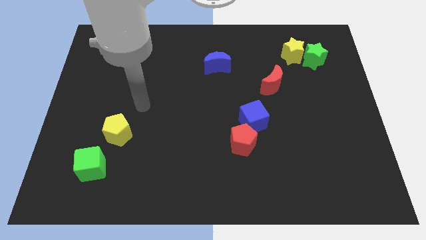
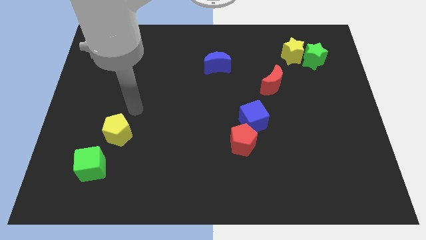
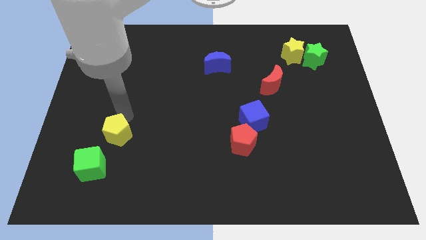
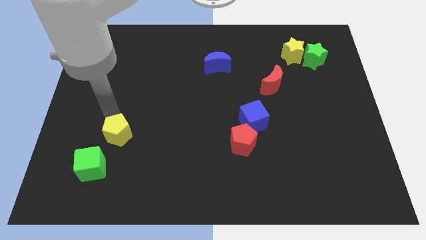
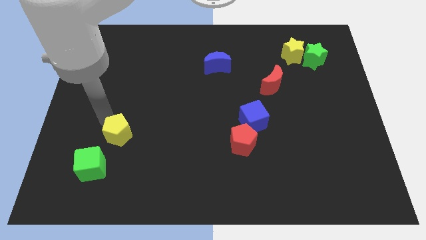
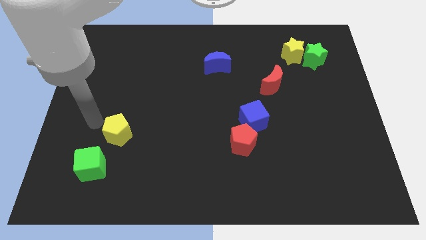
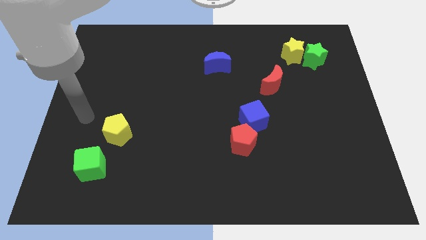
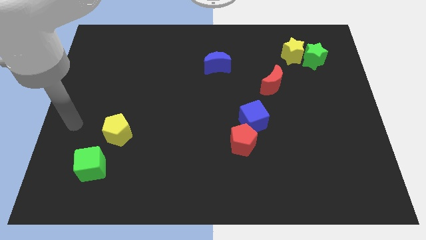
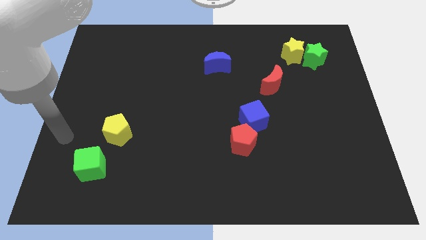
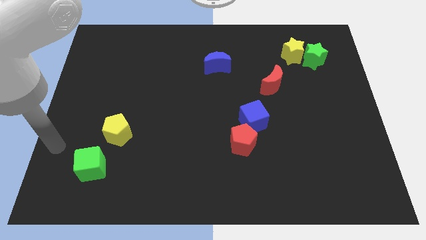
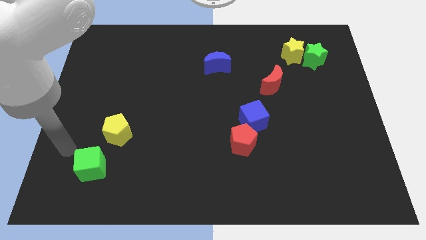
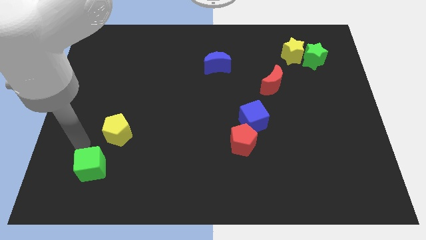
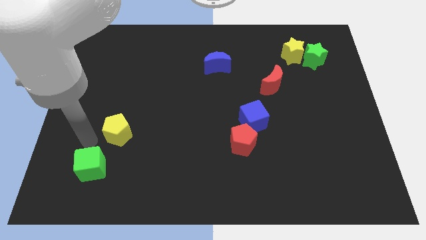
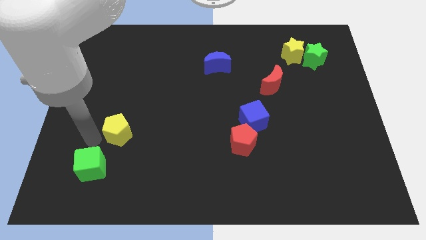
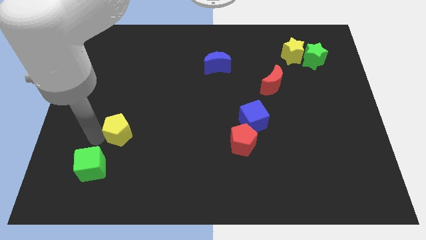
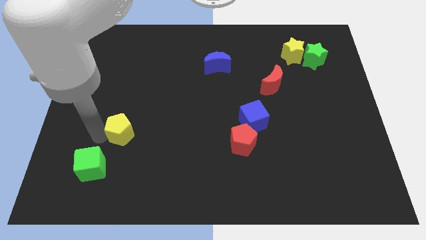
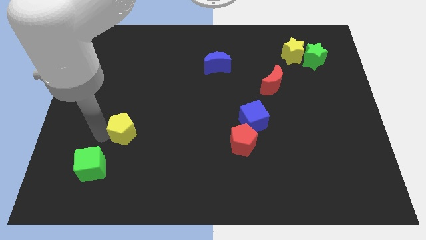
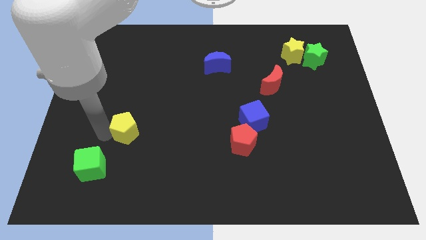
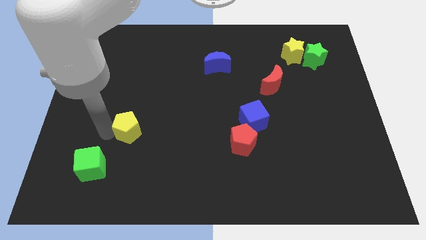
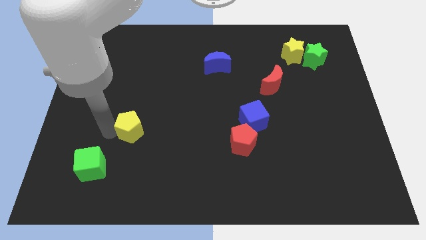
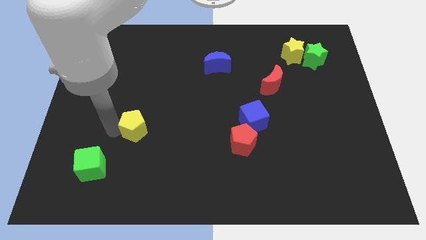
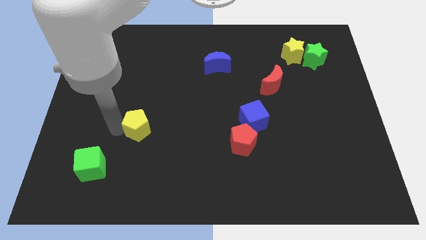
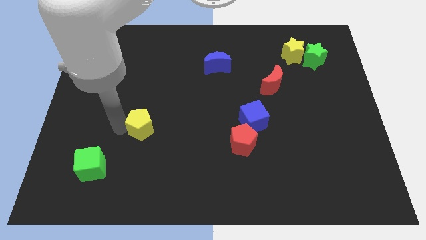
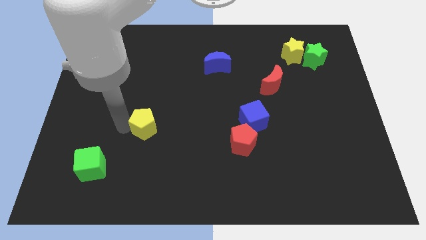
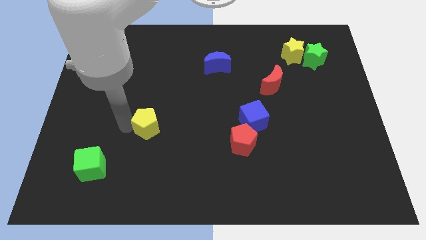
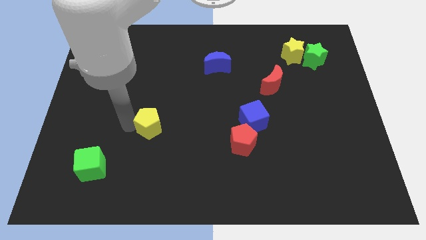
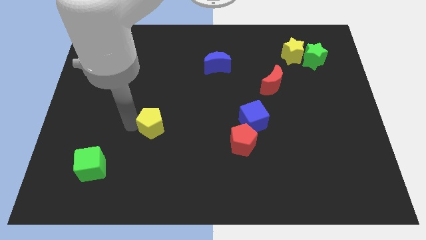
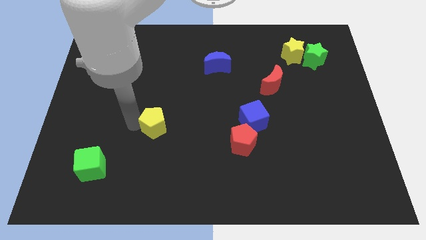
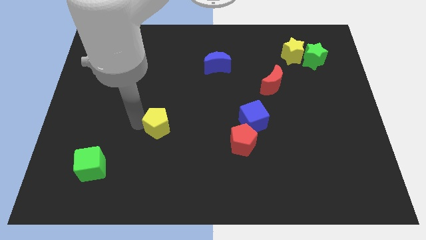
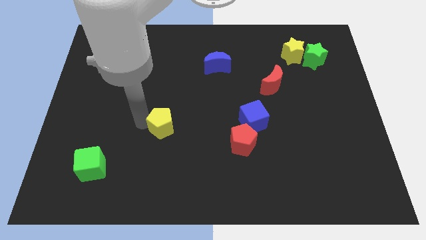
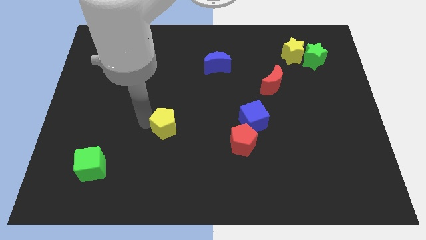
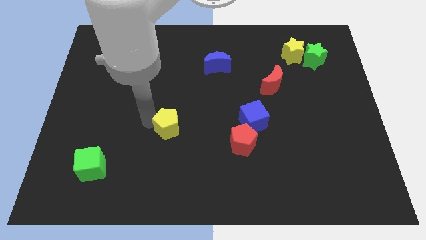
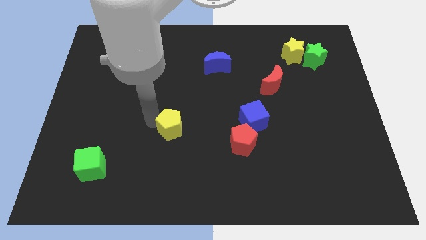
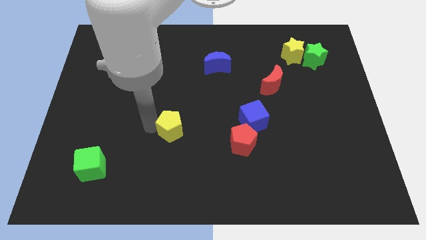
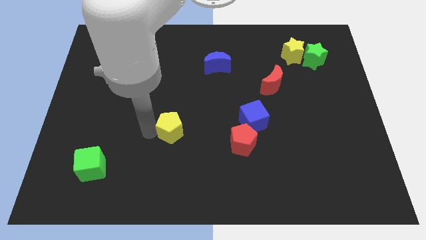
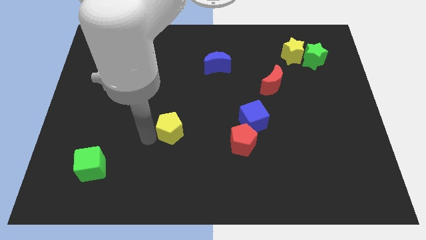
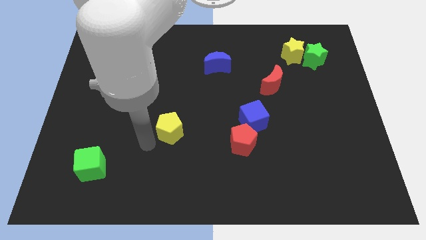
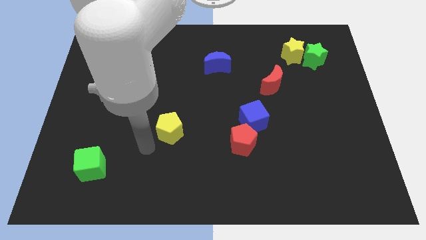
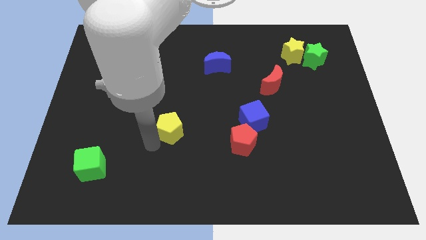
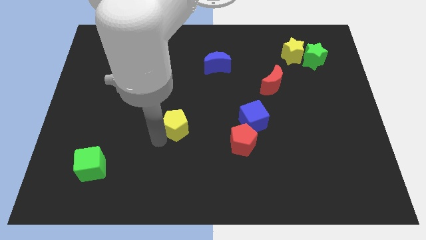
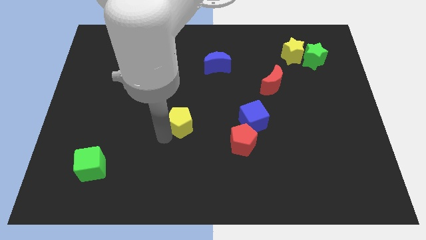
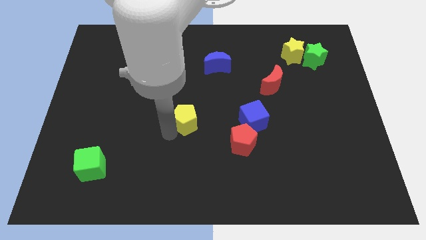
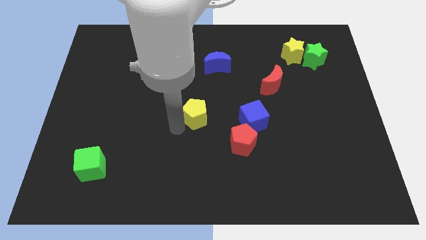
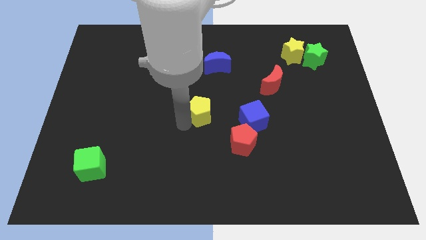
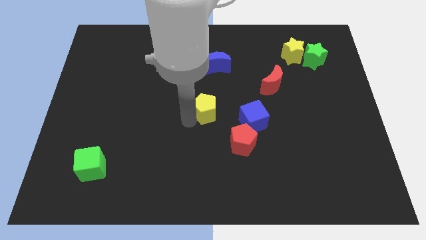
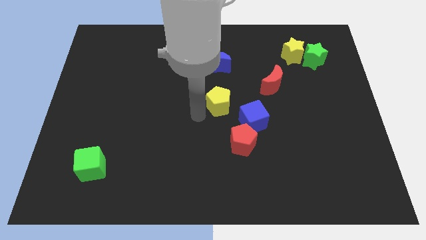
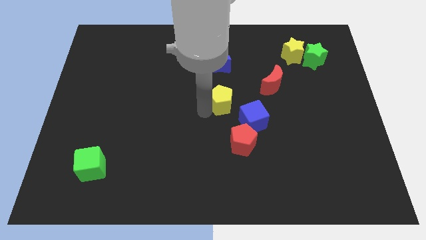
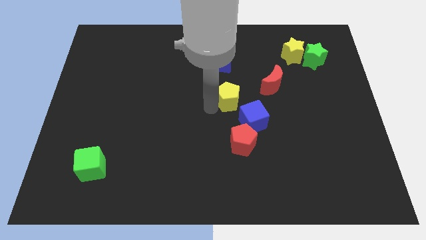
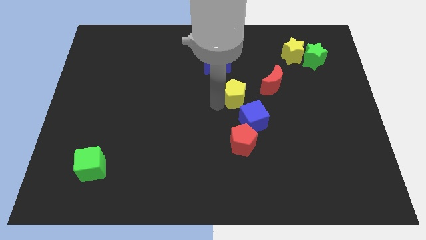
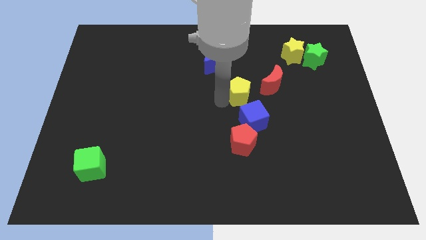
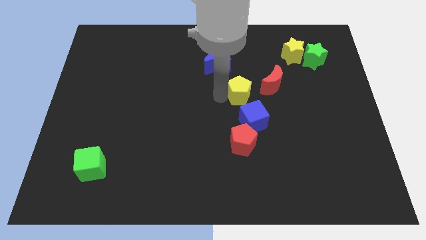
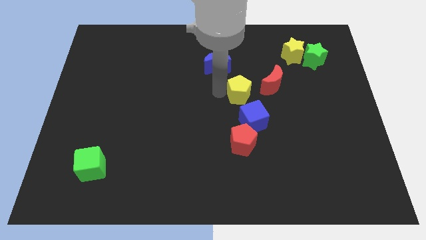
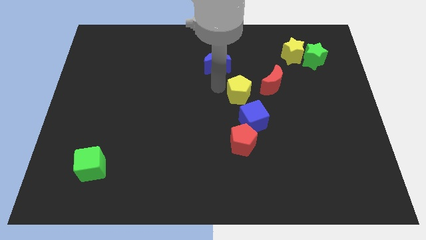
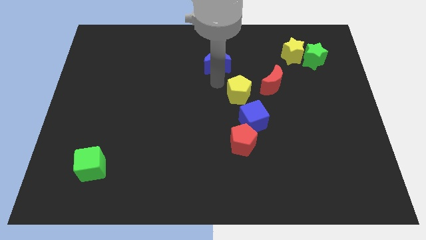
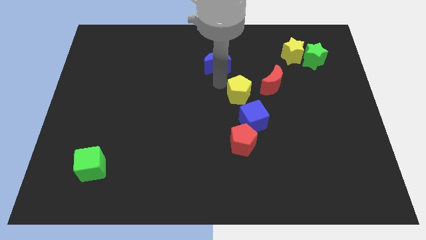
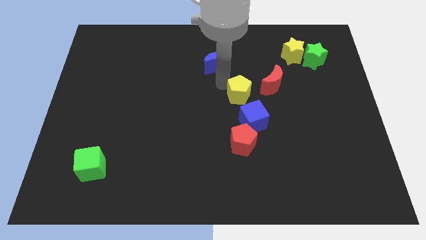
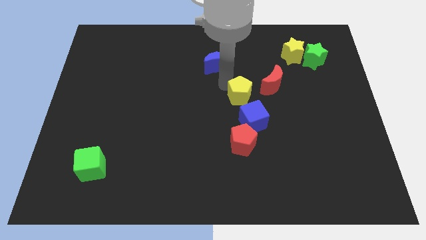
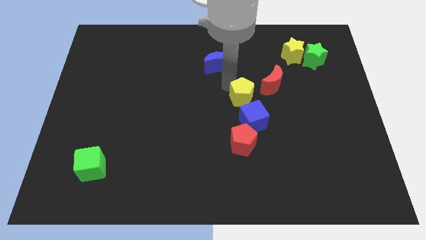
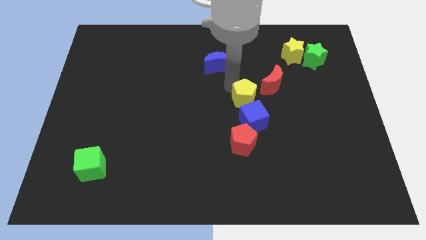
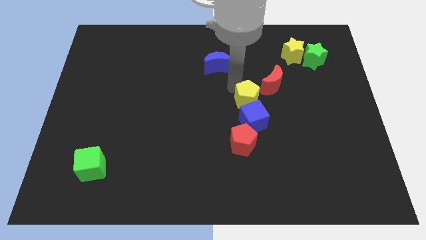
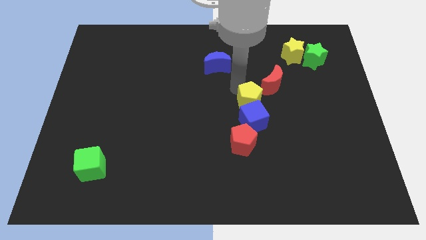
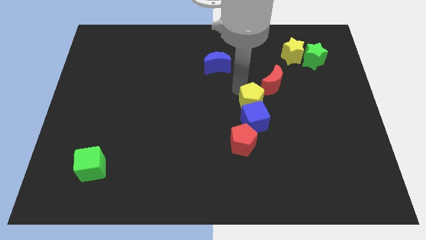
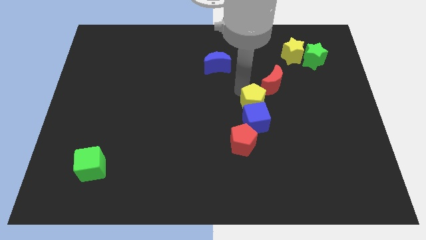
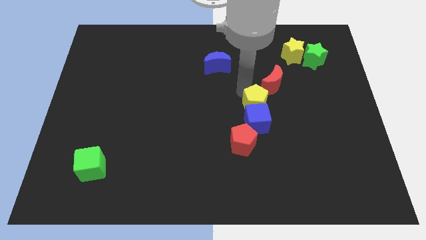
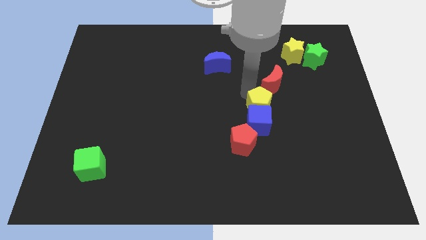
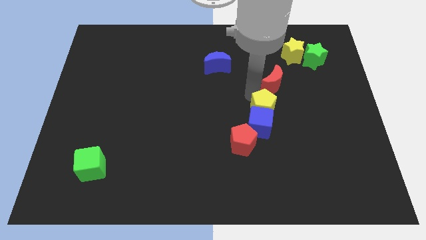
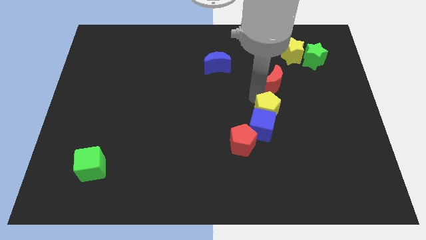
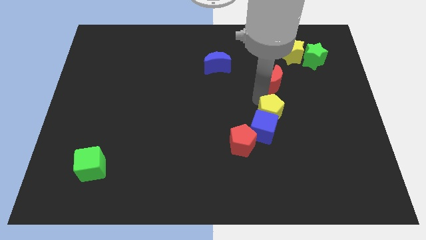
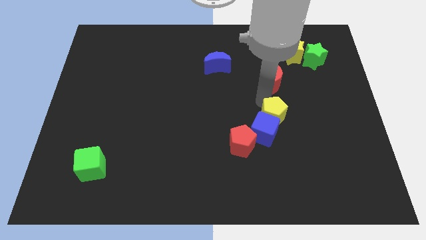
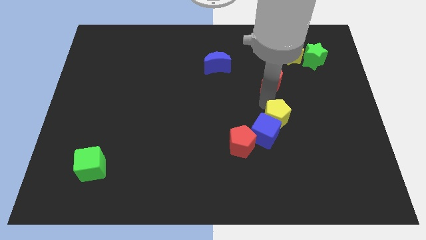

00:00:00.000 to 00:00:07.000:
move the yellow pentagon just right of the blue cube
